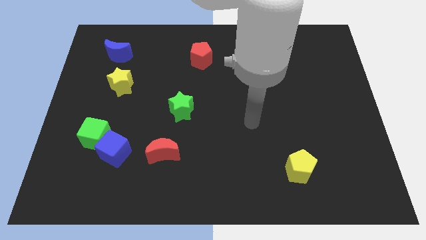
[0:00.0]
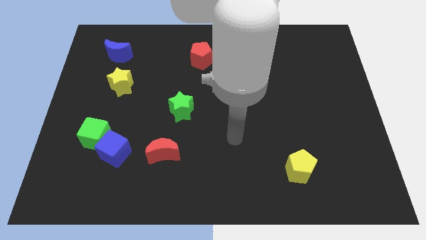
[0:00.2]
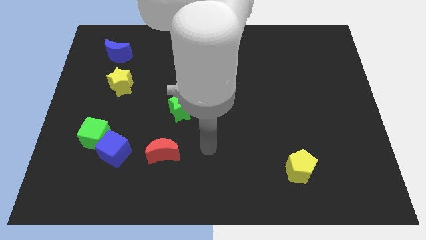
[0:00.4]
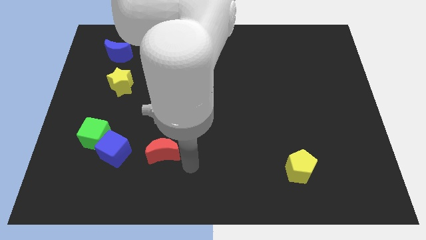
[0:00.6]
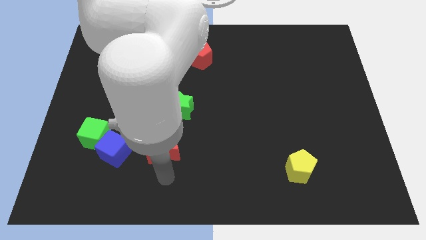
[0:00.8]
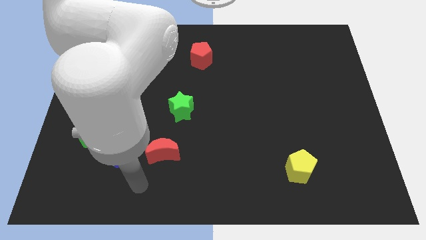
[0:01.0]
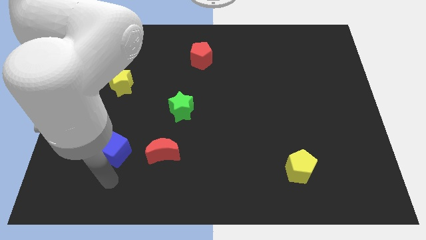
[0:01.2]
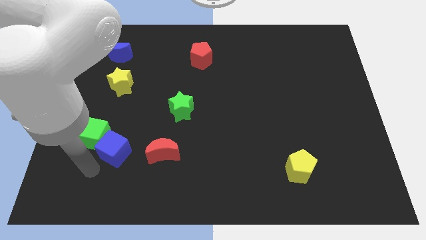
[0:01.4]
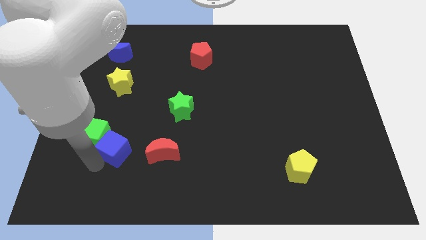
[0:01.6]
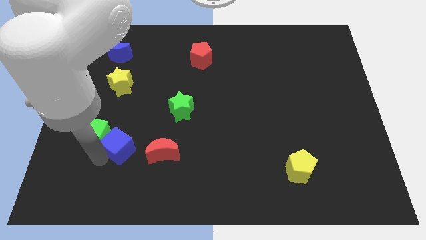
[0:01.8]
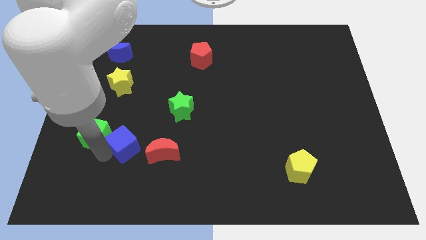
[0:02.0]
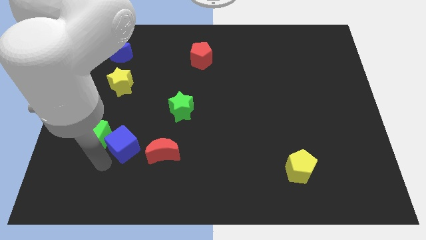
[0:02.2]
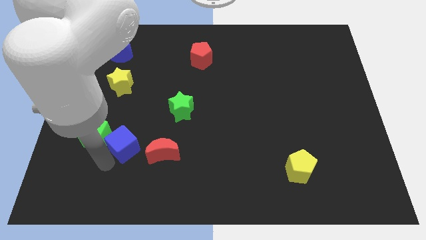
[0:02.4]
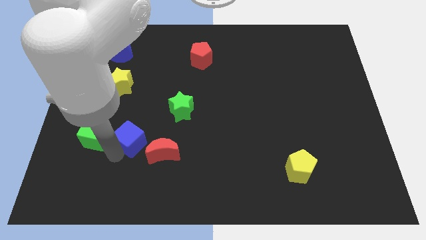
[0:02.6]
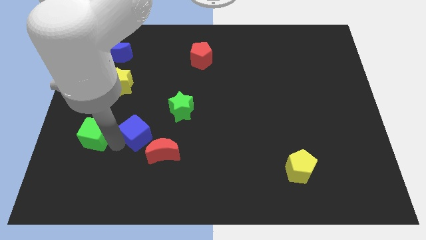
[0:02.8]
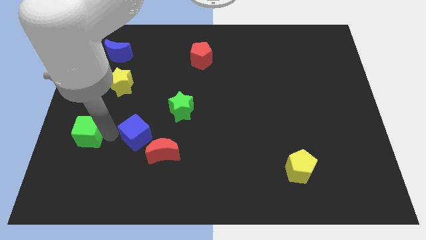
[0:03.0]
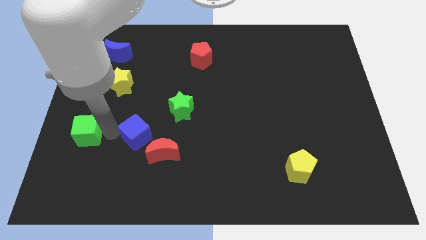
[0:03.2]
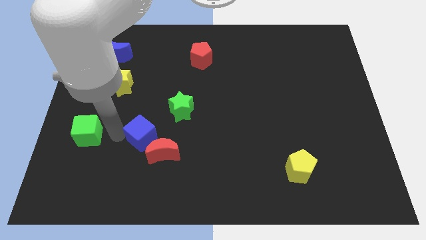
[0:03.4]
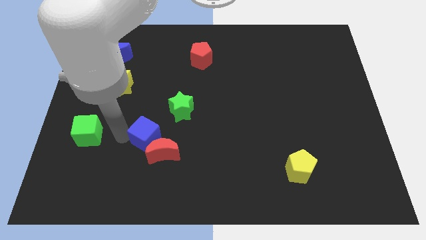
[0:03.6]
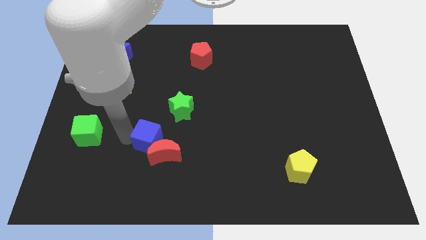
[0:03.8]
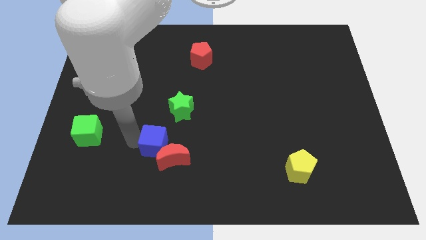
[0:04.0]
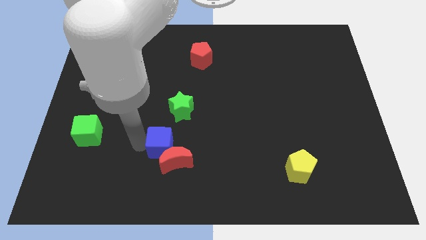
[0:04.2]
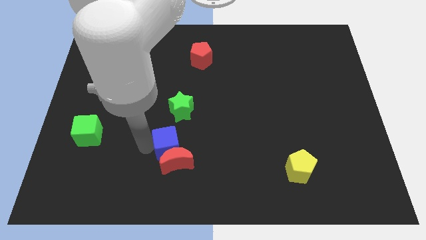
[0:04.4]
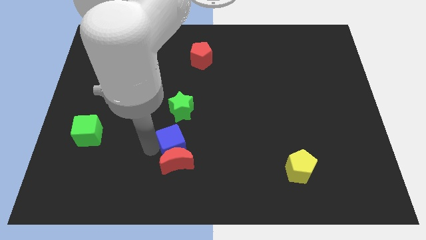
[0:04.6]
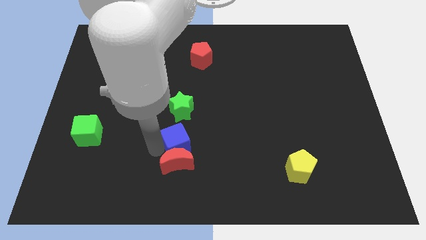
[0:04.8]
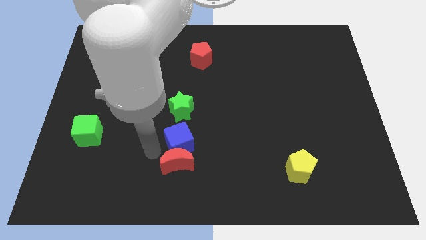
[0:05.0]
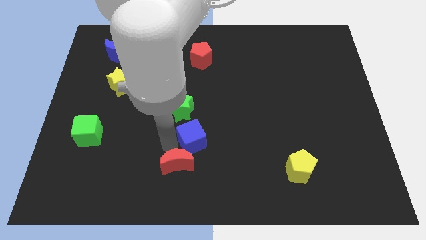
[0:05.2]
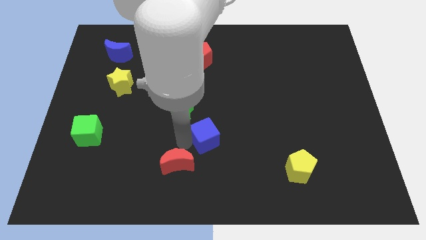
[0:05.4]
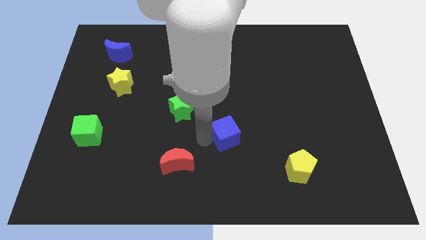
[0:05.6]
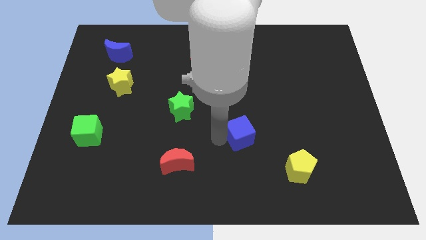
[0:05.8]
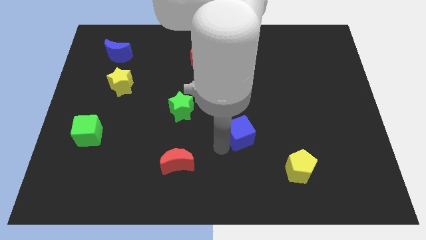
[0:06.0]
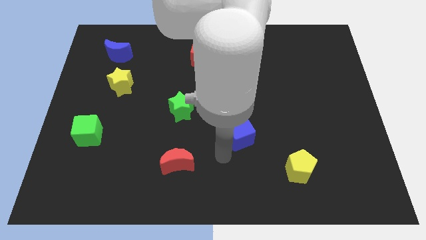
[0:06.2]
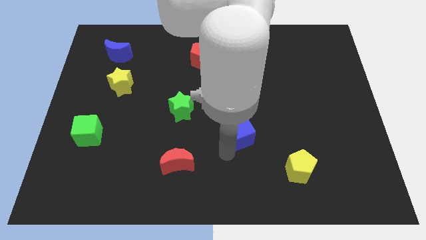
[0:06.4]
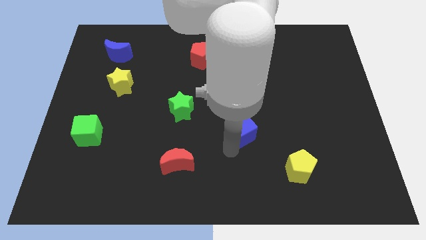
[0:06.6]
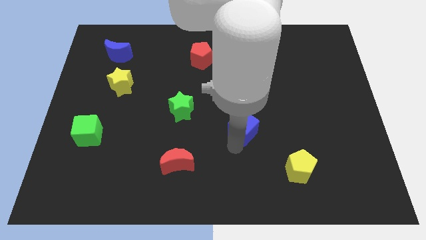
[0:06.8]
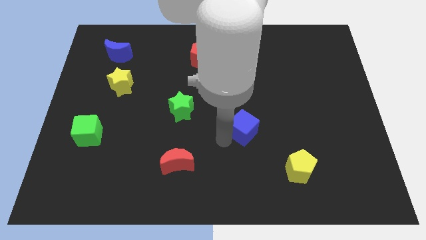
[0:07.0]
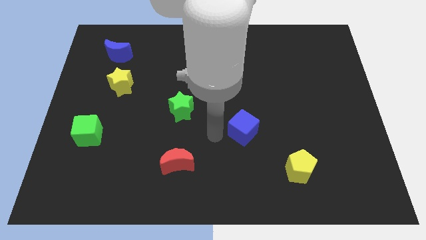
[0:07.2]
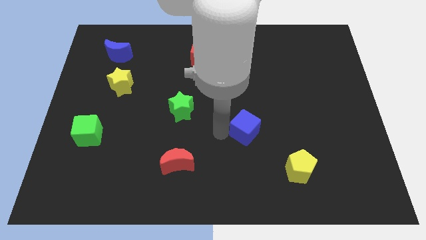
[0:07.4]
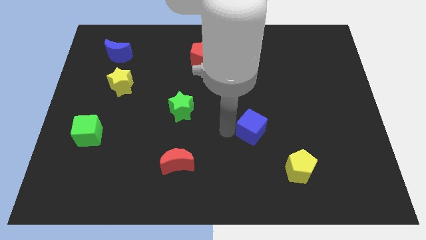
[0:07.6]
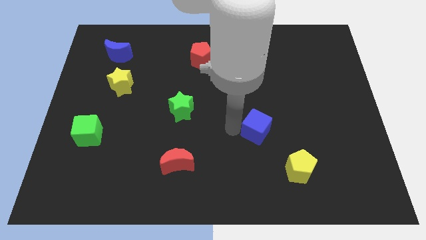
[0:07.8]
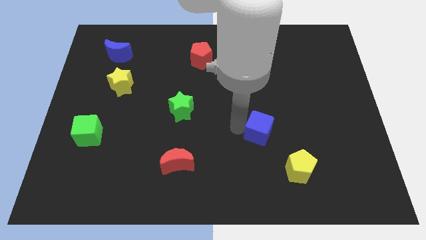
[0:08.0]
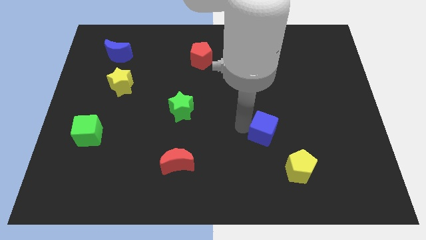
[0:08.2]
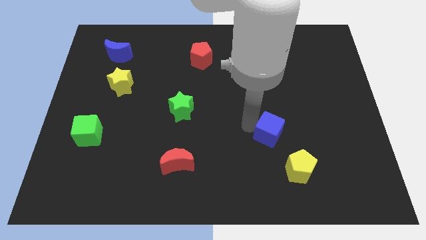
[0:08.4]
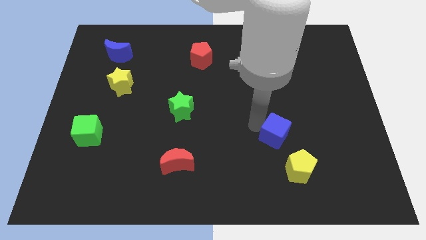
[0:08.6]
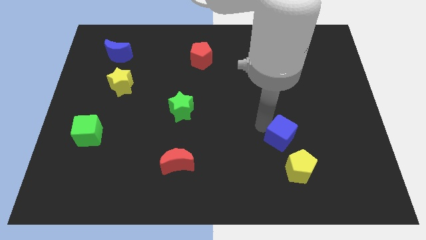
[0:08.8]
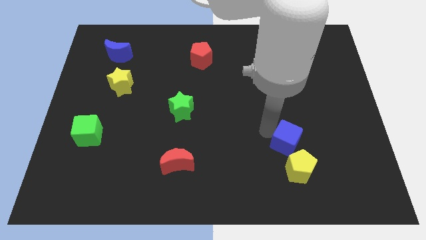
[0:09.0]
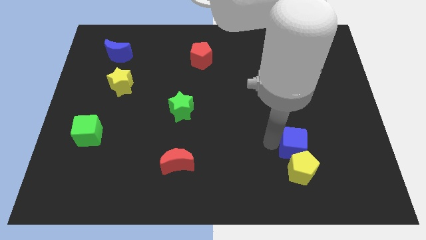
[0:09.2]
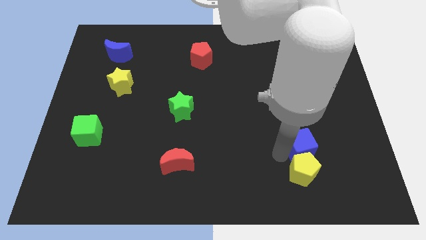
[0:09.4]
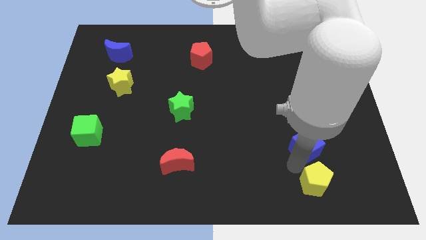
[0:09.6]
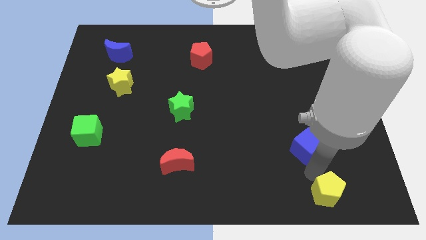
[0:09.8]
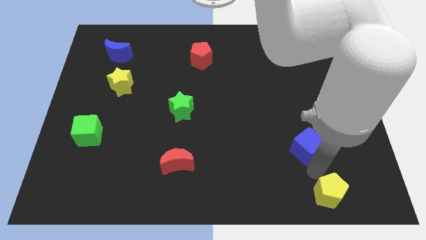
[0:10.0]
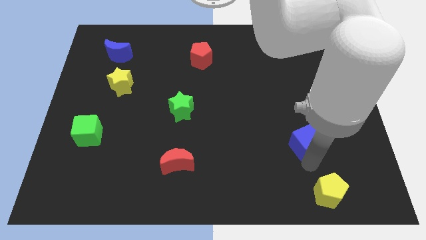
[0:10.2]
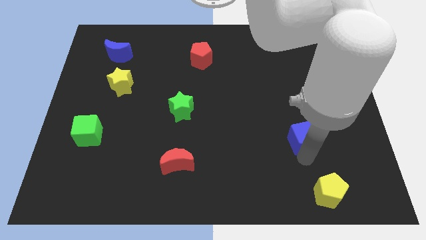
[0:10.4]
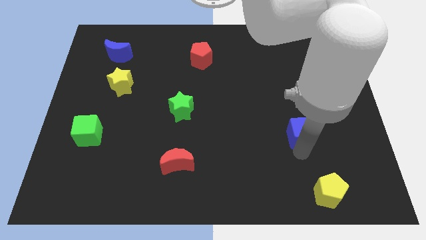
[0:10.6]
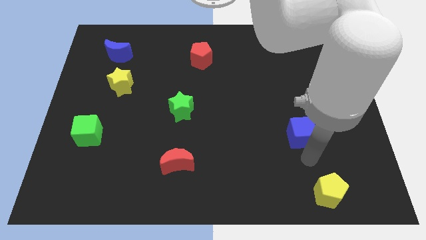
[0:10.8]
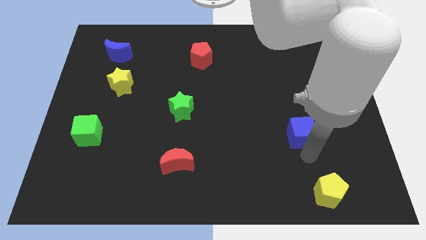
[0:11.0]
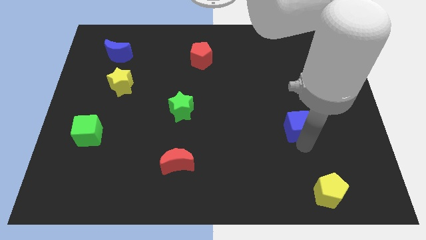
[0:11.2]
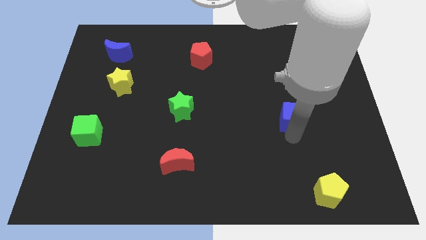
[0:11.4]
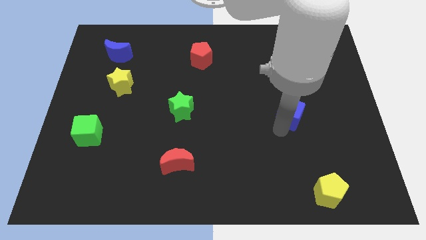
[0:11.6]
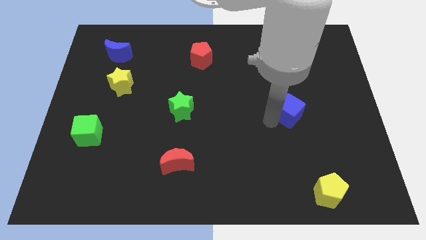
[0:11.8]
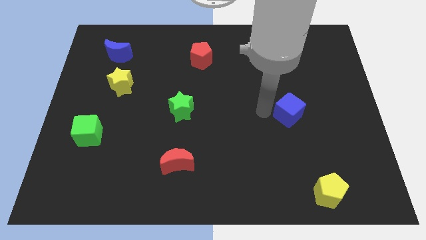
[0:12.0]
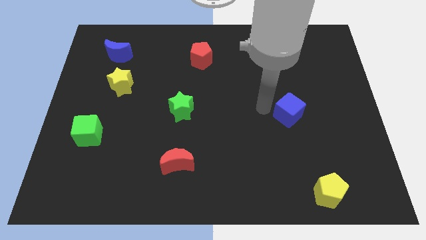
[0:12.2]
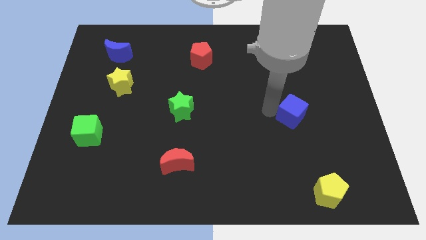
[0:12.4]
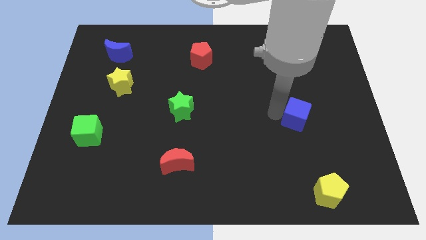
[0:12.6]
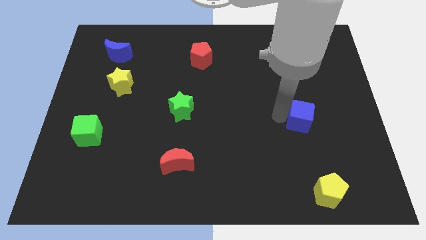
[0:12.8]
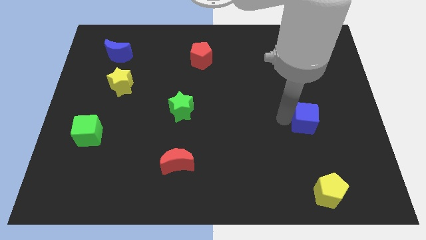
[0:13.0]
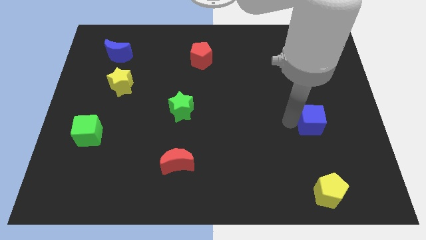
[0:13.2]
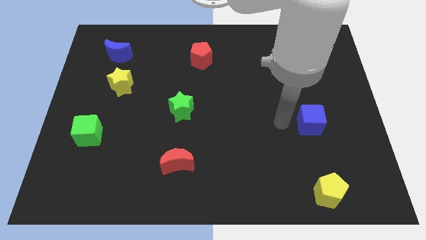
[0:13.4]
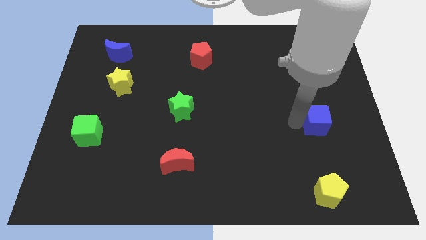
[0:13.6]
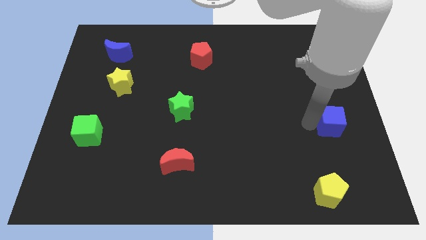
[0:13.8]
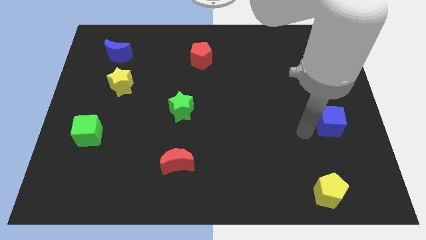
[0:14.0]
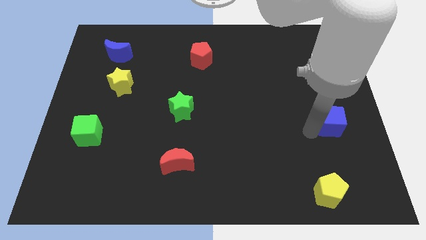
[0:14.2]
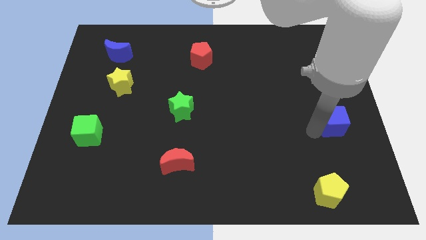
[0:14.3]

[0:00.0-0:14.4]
slide the blue cube to the center right
